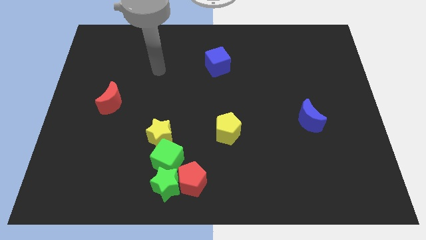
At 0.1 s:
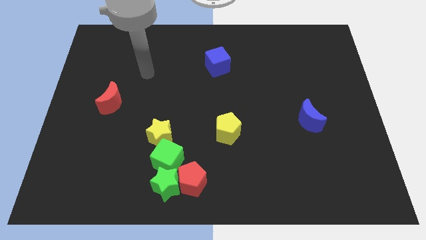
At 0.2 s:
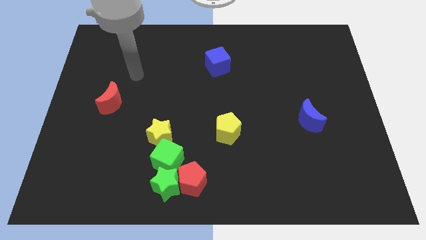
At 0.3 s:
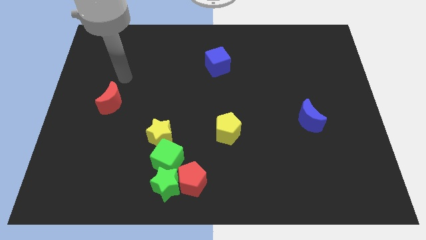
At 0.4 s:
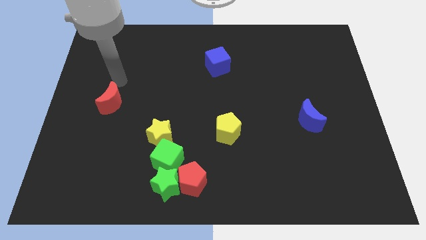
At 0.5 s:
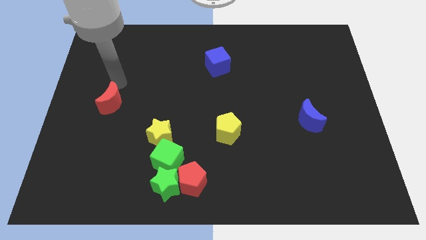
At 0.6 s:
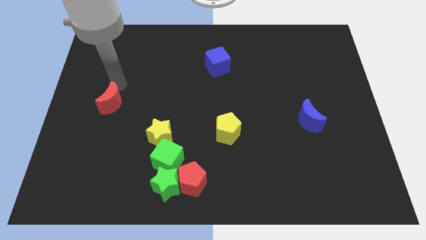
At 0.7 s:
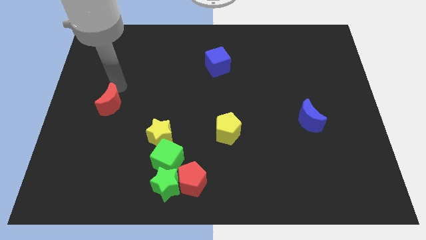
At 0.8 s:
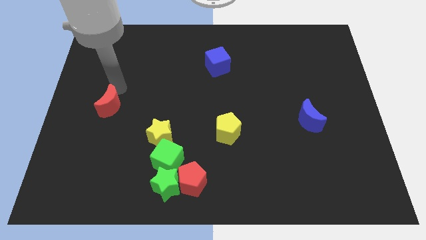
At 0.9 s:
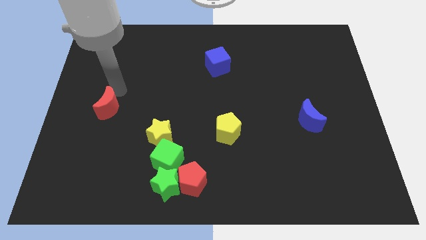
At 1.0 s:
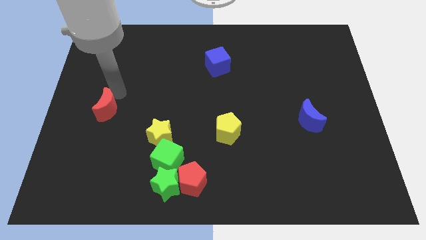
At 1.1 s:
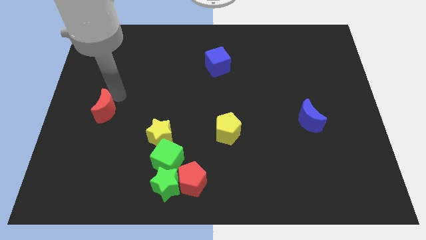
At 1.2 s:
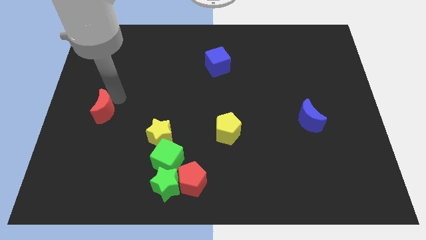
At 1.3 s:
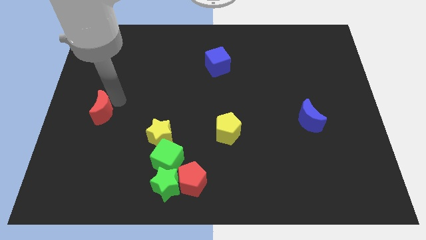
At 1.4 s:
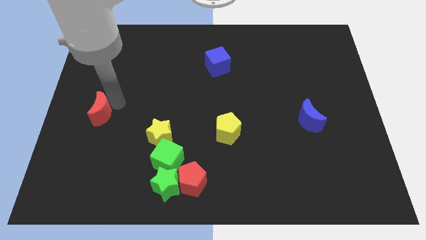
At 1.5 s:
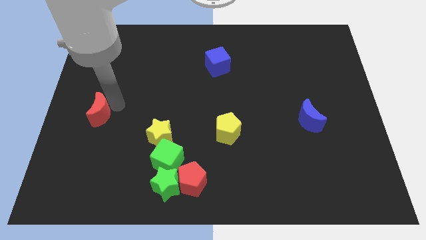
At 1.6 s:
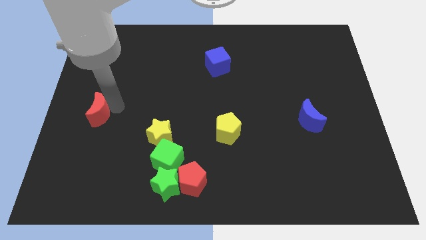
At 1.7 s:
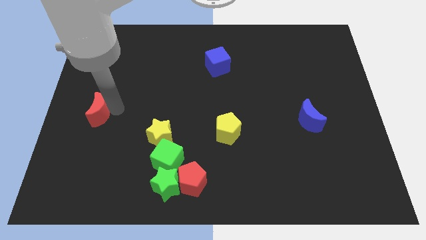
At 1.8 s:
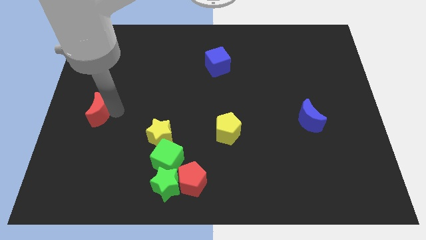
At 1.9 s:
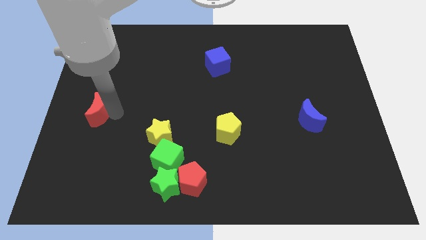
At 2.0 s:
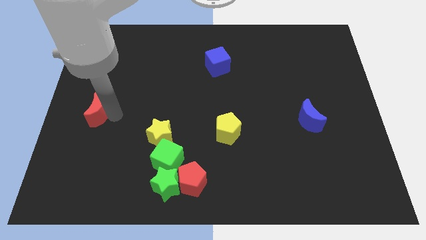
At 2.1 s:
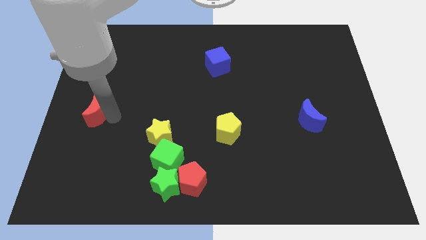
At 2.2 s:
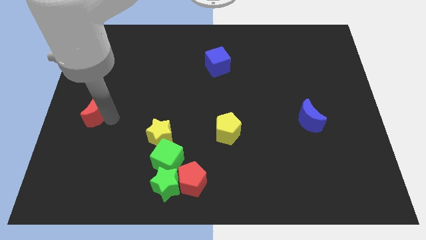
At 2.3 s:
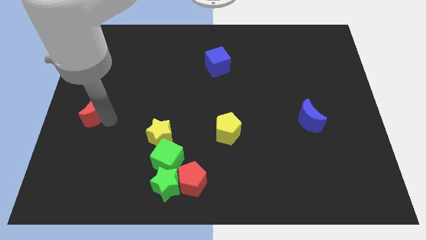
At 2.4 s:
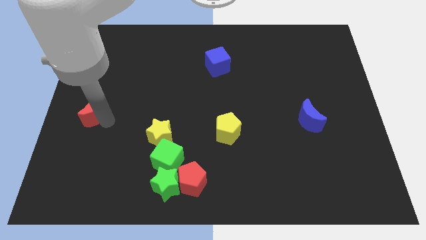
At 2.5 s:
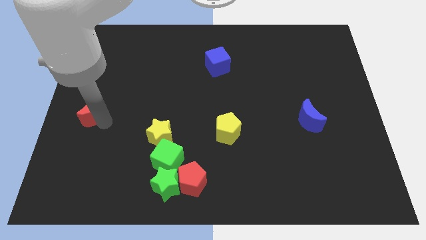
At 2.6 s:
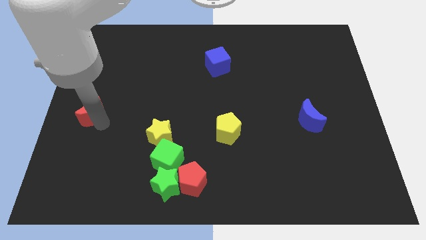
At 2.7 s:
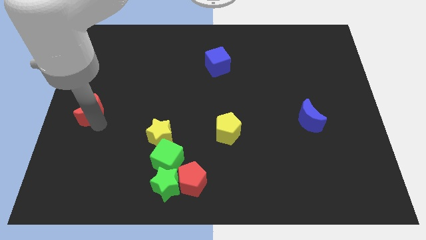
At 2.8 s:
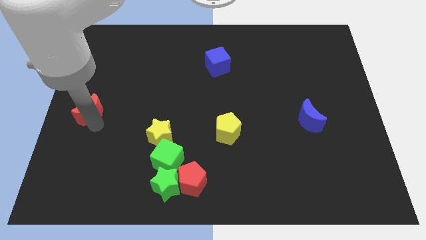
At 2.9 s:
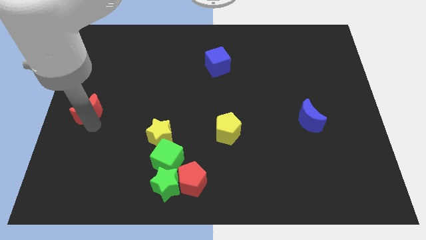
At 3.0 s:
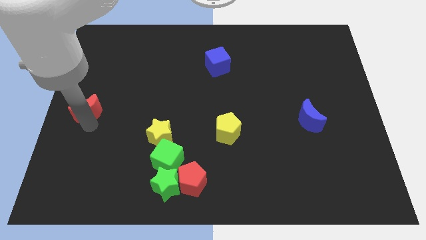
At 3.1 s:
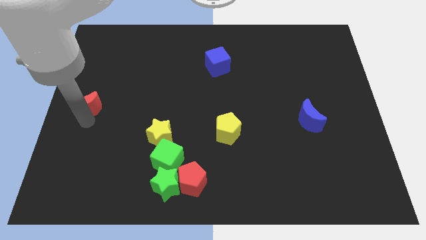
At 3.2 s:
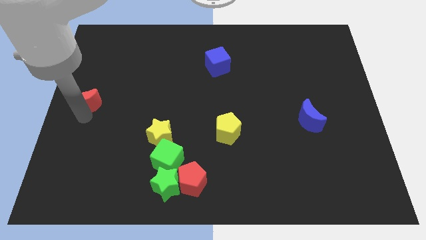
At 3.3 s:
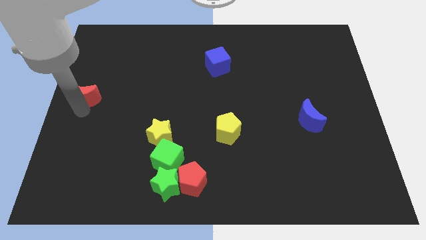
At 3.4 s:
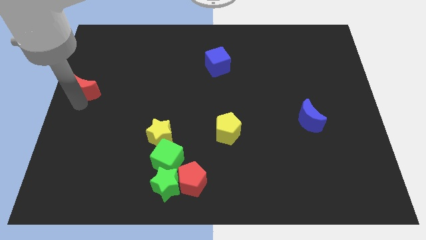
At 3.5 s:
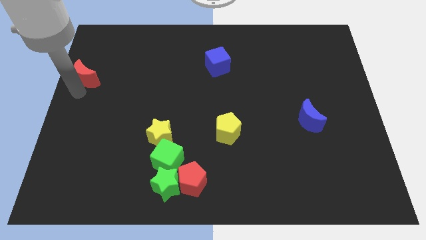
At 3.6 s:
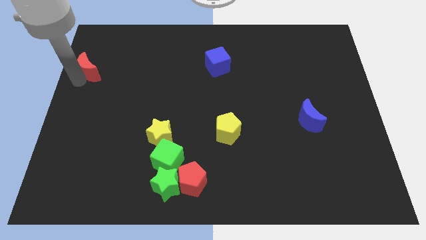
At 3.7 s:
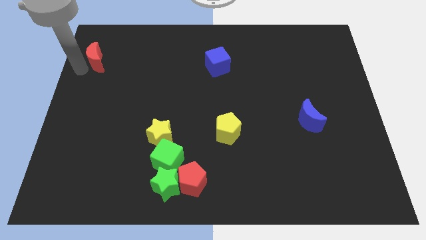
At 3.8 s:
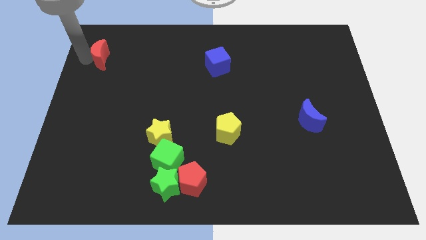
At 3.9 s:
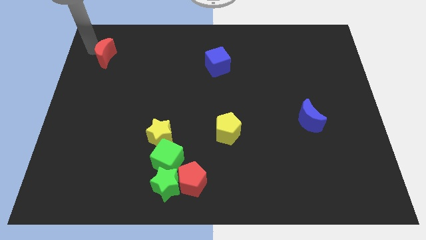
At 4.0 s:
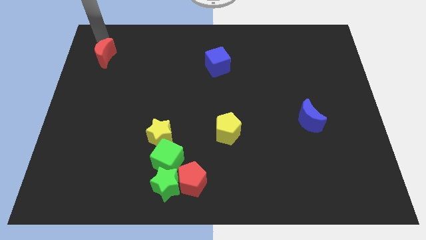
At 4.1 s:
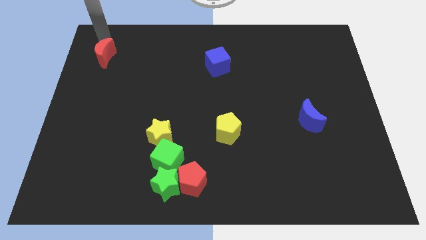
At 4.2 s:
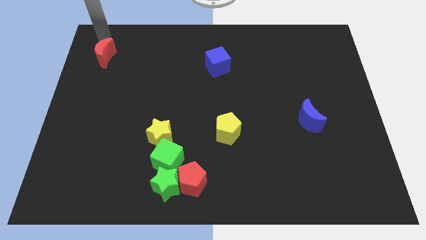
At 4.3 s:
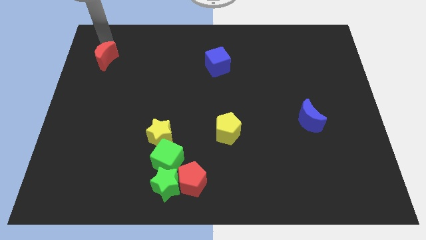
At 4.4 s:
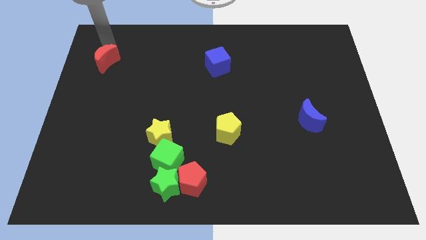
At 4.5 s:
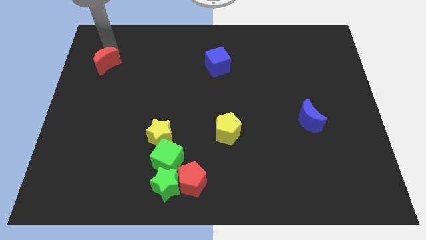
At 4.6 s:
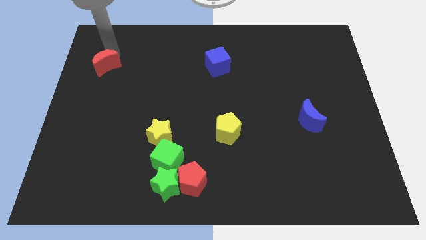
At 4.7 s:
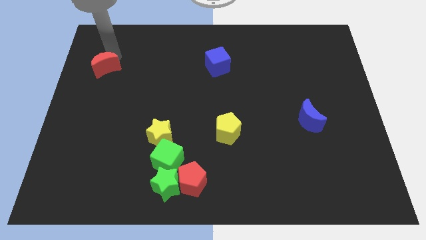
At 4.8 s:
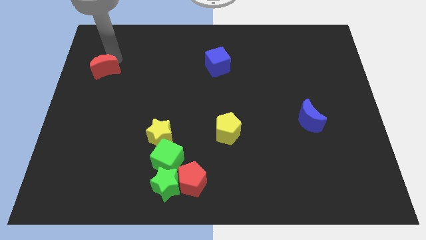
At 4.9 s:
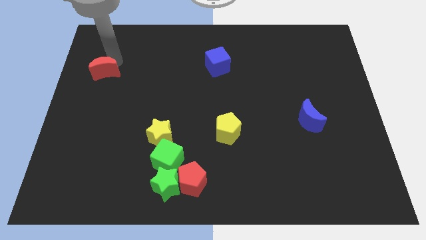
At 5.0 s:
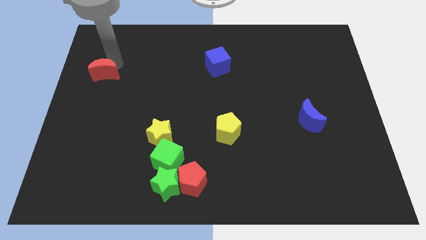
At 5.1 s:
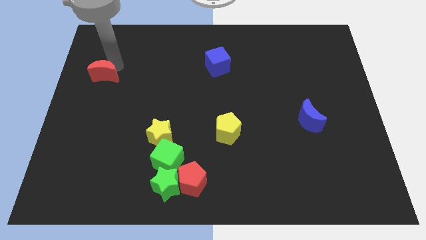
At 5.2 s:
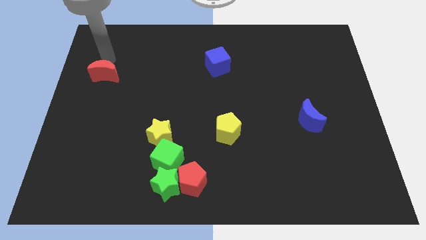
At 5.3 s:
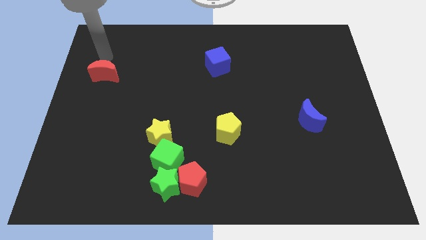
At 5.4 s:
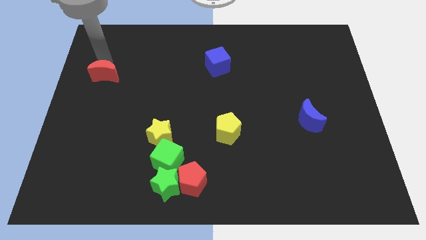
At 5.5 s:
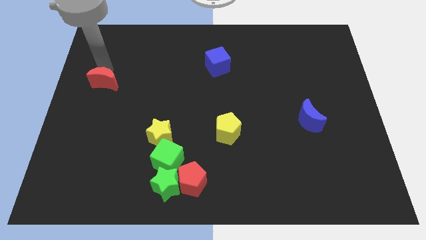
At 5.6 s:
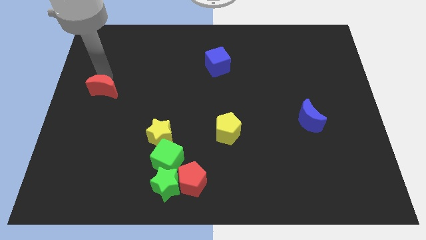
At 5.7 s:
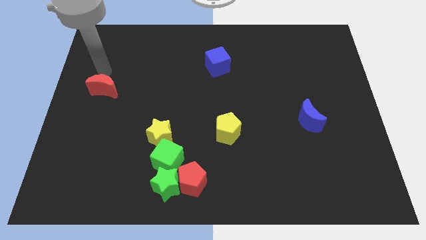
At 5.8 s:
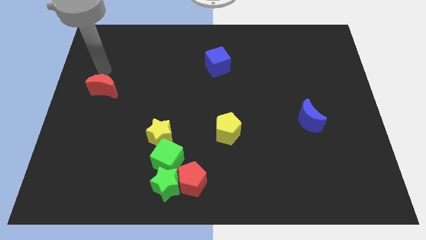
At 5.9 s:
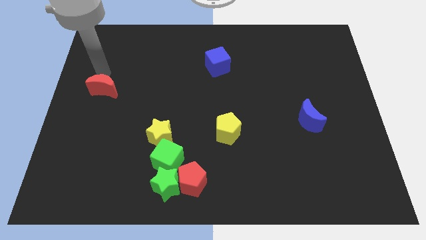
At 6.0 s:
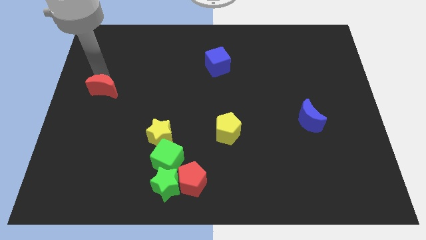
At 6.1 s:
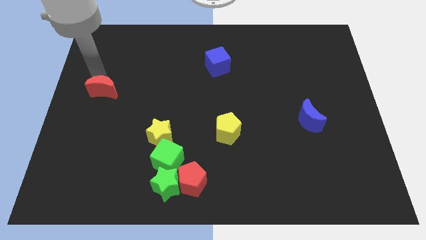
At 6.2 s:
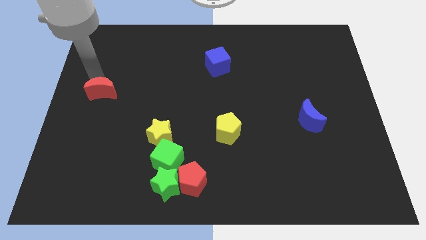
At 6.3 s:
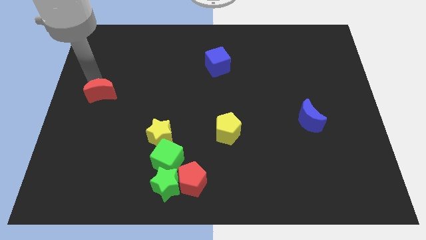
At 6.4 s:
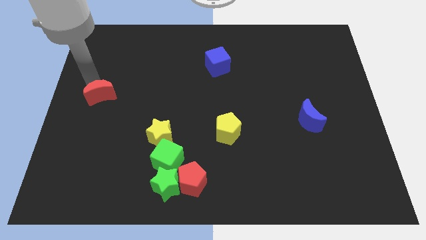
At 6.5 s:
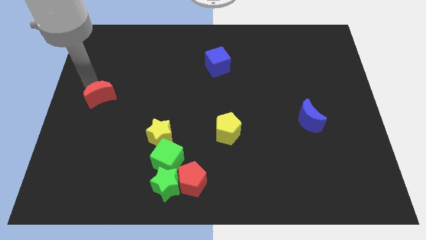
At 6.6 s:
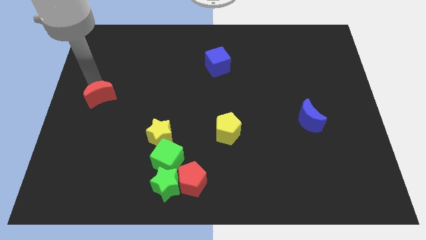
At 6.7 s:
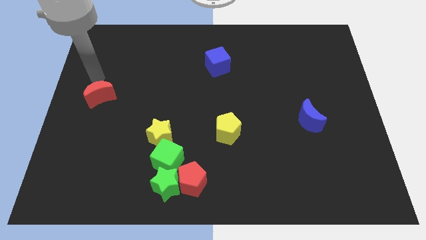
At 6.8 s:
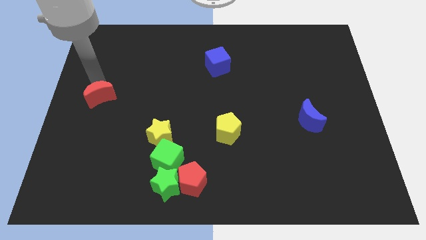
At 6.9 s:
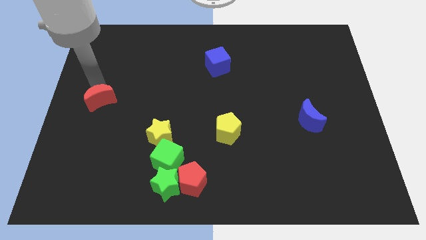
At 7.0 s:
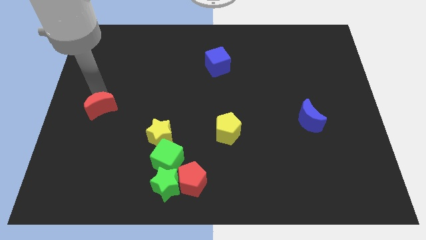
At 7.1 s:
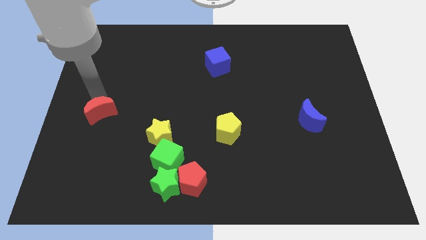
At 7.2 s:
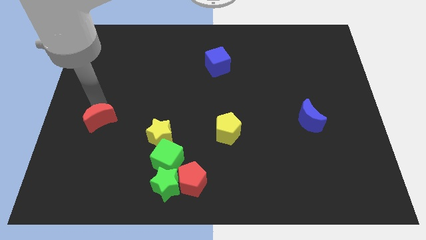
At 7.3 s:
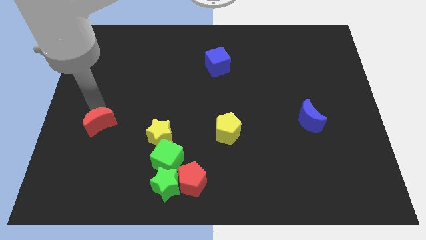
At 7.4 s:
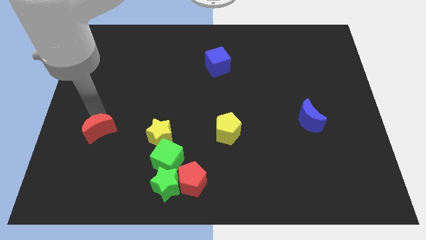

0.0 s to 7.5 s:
push the red moon slightly downwards

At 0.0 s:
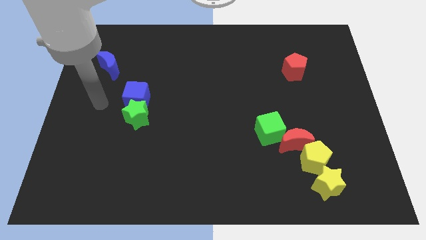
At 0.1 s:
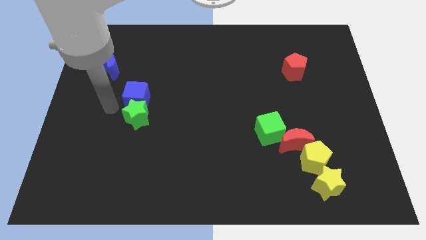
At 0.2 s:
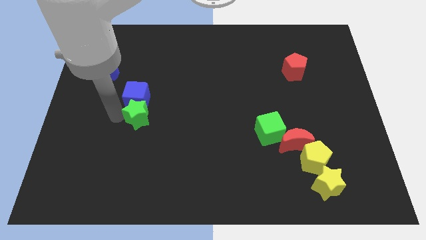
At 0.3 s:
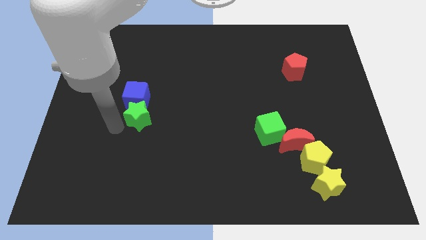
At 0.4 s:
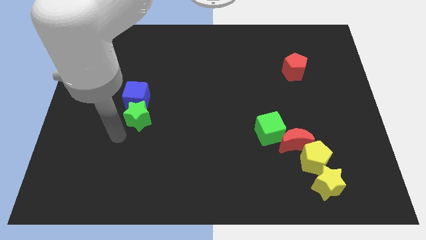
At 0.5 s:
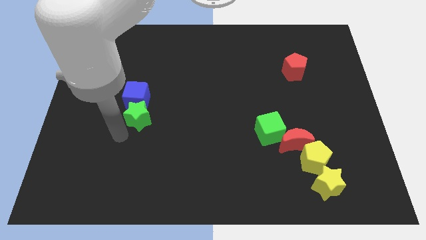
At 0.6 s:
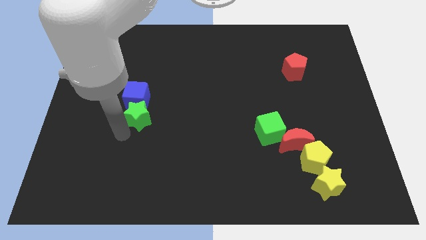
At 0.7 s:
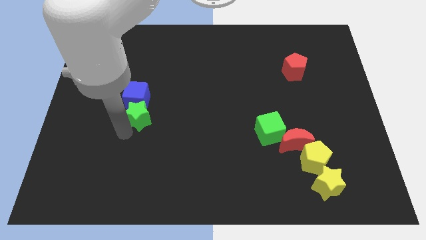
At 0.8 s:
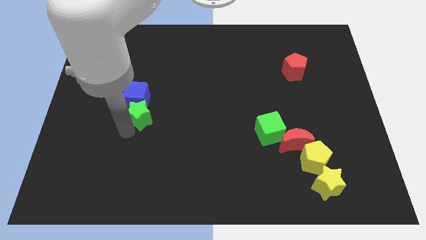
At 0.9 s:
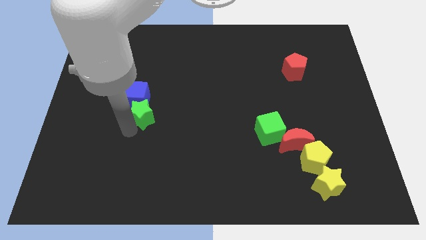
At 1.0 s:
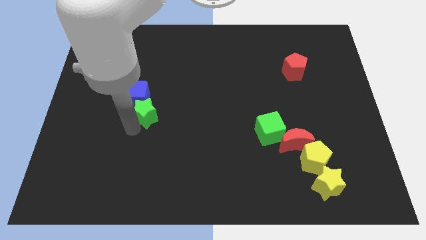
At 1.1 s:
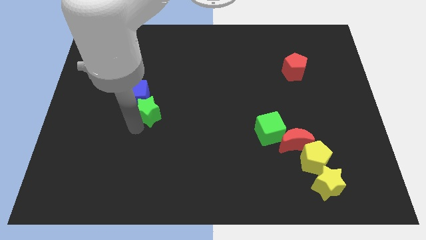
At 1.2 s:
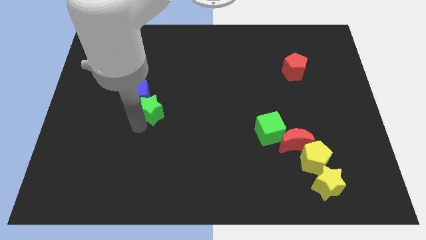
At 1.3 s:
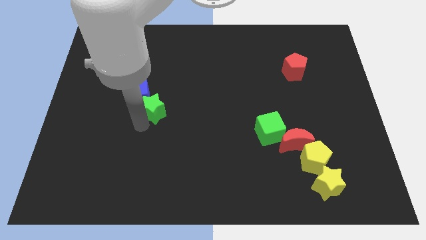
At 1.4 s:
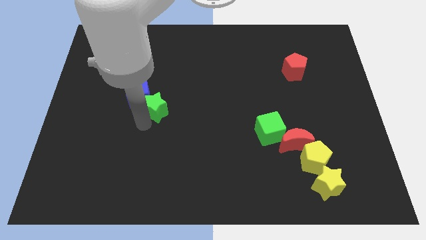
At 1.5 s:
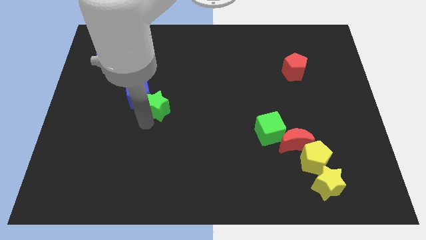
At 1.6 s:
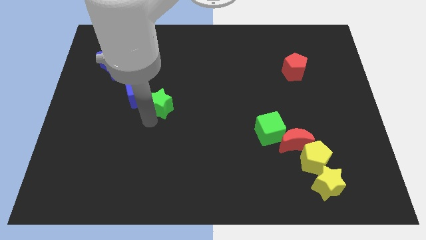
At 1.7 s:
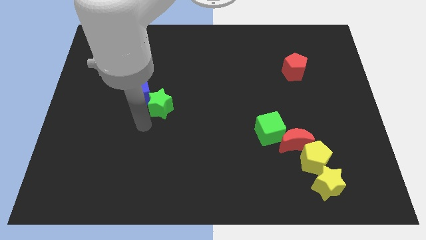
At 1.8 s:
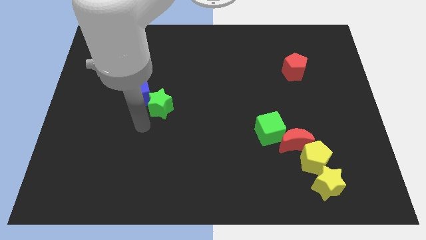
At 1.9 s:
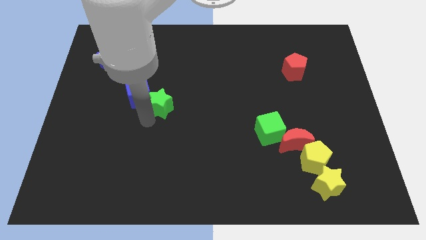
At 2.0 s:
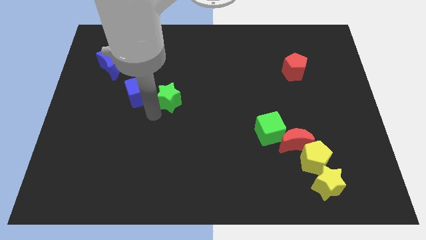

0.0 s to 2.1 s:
move the green star upwards and right a little bit
